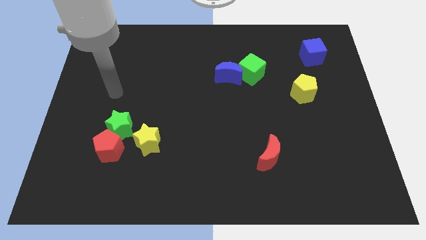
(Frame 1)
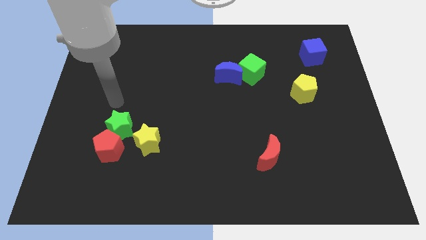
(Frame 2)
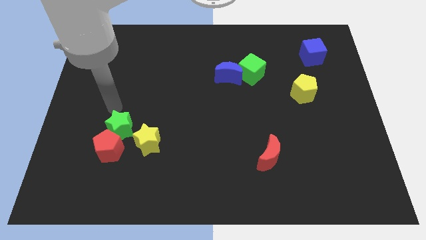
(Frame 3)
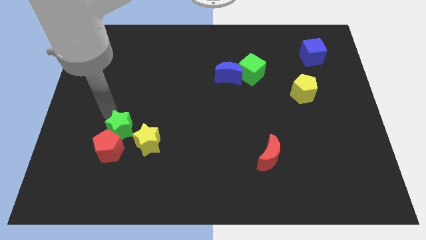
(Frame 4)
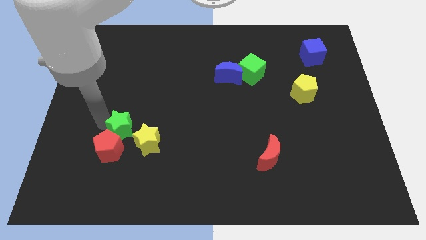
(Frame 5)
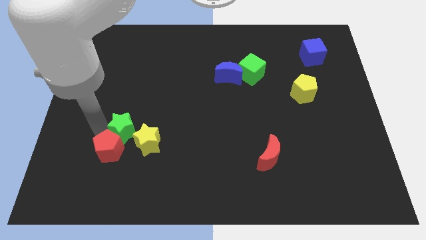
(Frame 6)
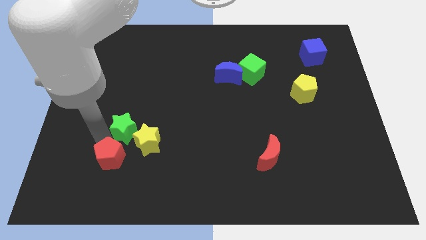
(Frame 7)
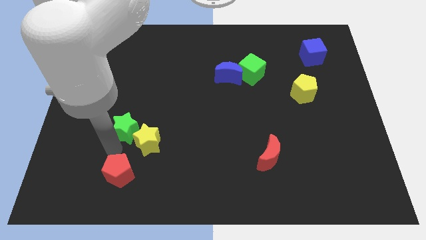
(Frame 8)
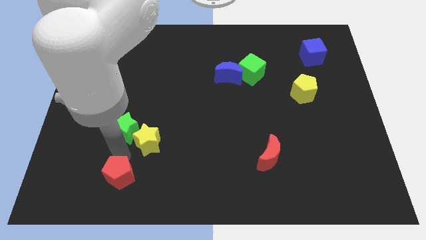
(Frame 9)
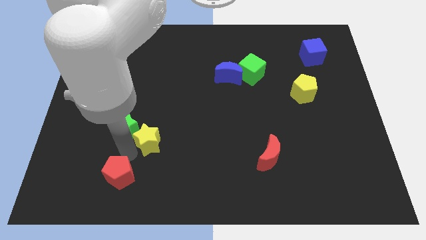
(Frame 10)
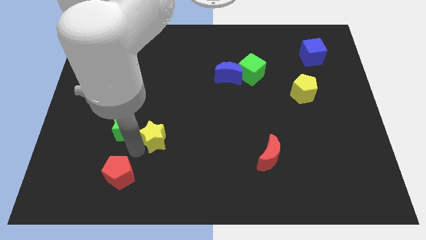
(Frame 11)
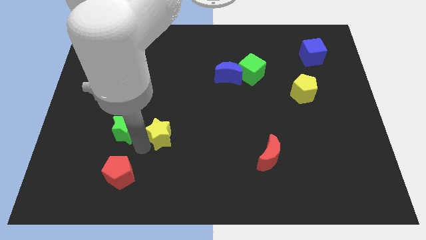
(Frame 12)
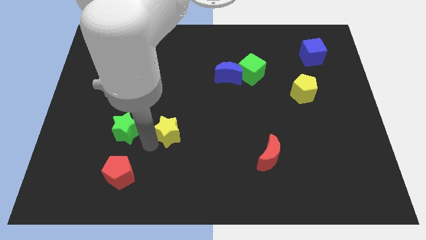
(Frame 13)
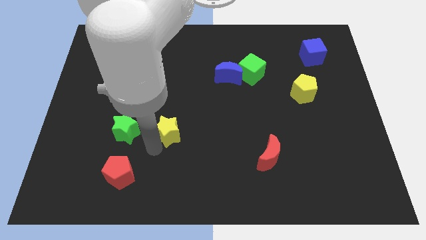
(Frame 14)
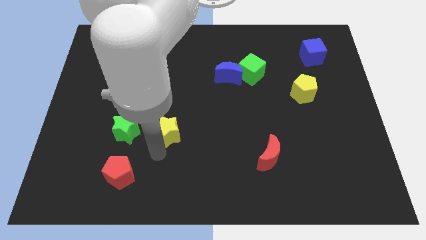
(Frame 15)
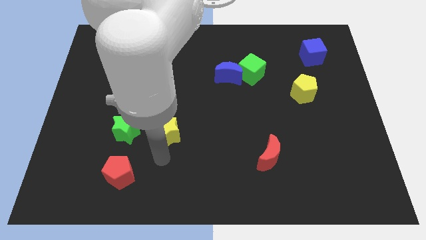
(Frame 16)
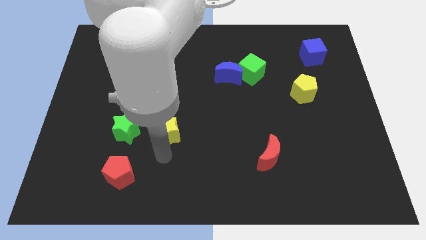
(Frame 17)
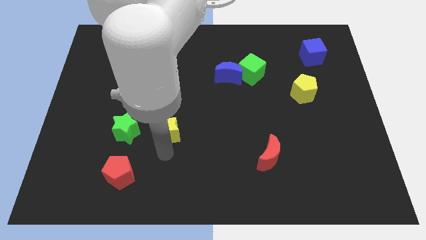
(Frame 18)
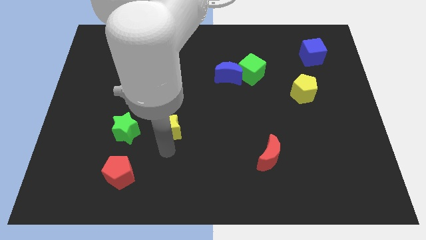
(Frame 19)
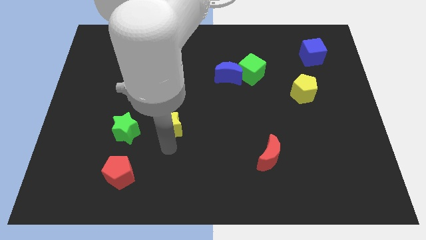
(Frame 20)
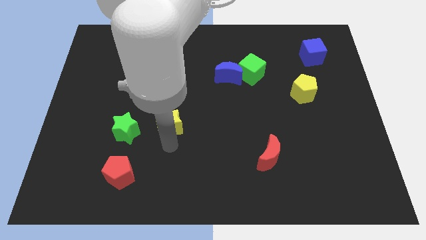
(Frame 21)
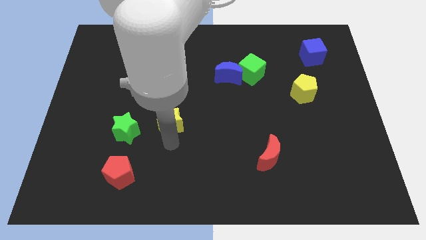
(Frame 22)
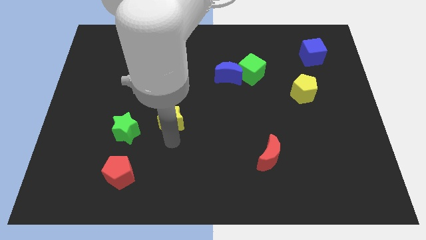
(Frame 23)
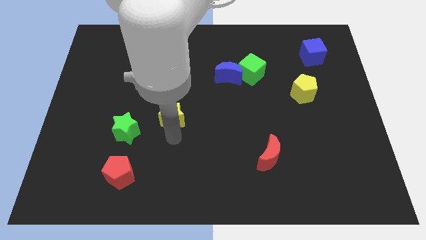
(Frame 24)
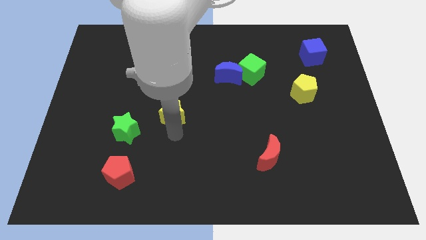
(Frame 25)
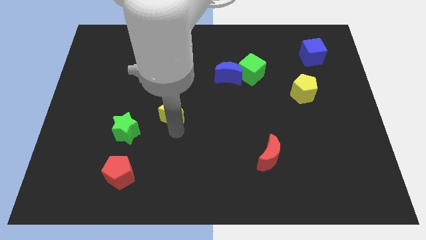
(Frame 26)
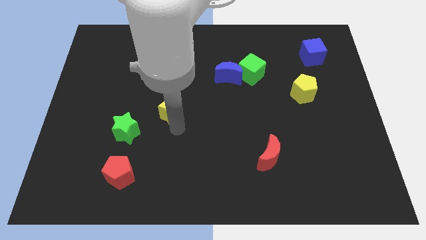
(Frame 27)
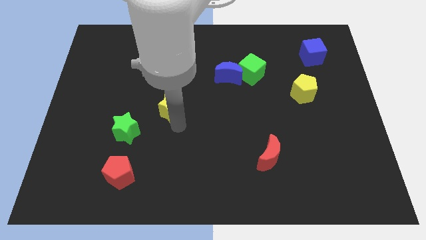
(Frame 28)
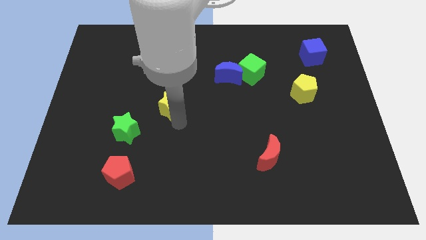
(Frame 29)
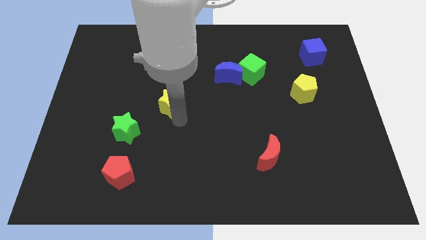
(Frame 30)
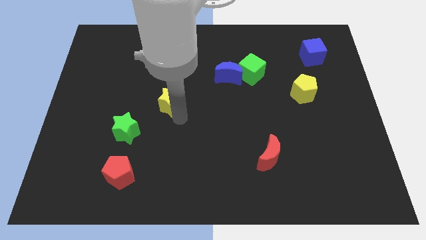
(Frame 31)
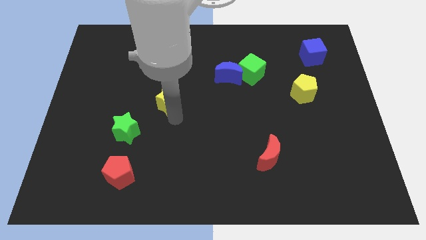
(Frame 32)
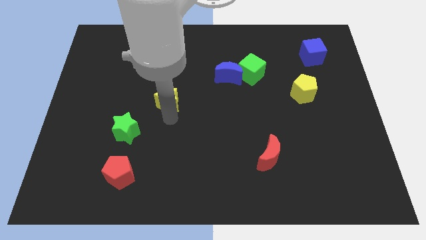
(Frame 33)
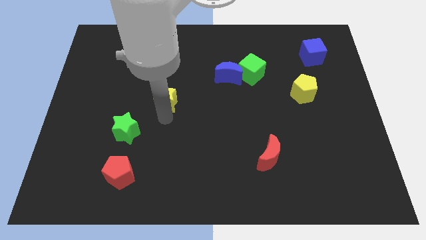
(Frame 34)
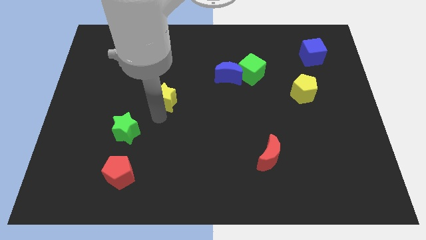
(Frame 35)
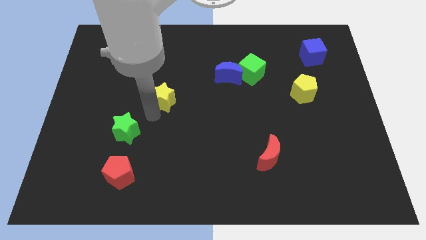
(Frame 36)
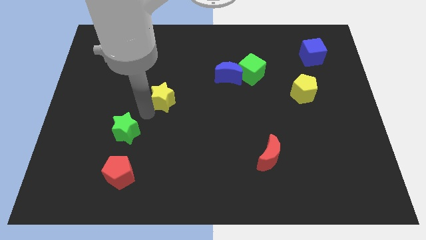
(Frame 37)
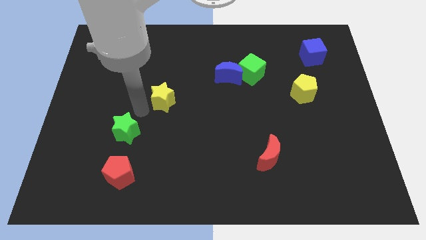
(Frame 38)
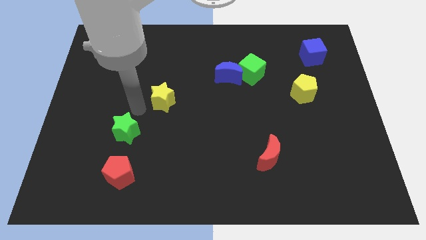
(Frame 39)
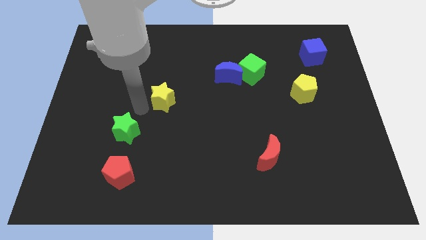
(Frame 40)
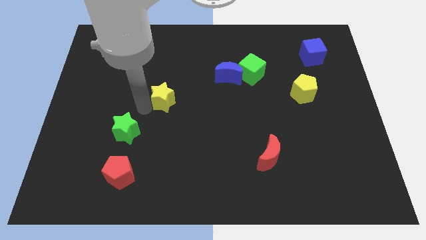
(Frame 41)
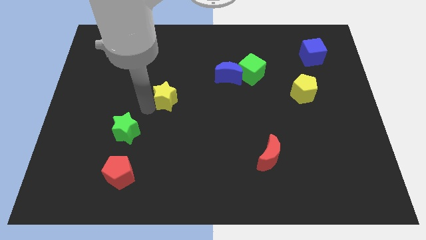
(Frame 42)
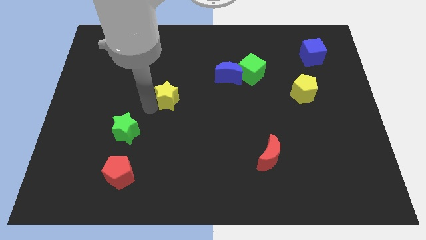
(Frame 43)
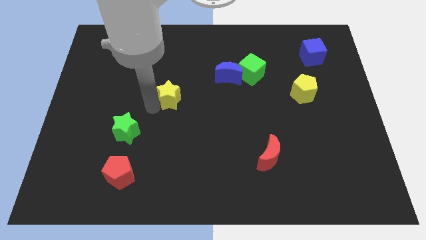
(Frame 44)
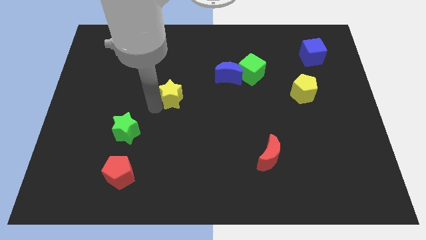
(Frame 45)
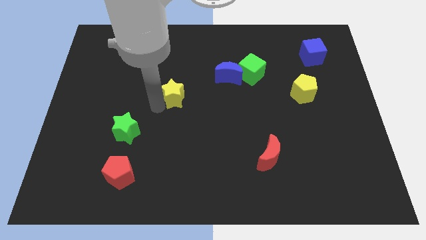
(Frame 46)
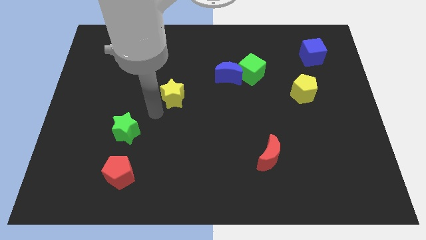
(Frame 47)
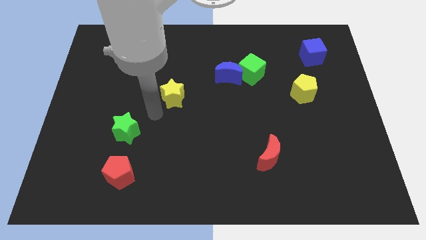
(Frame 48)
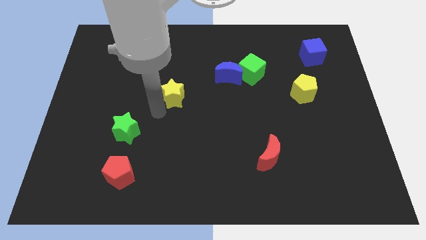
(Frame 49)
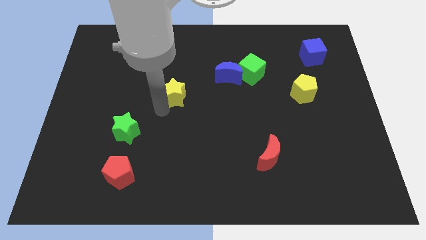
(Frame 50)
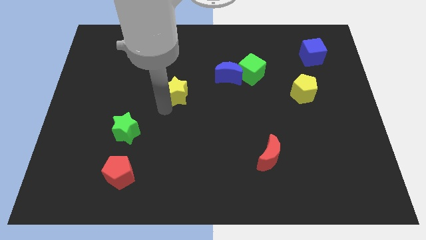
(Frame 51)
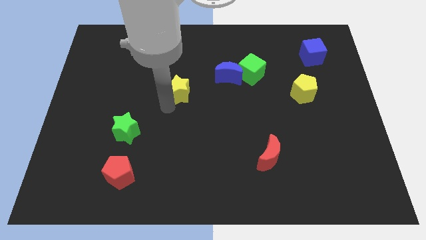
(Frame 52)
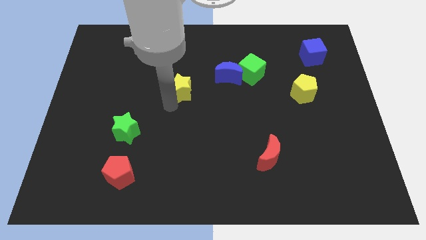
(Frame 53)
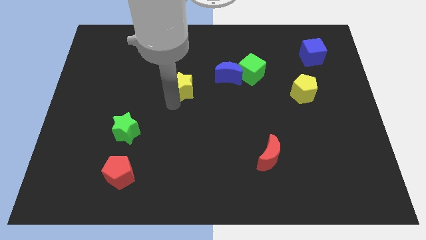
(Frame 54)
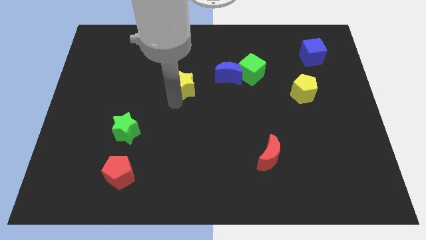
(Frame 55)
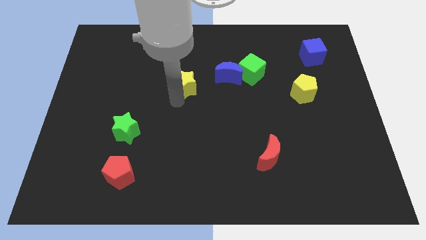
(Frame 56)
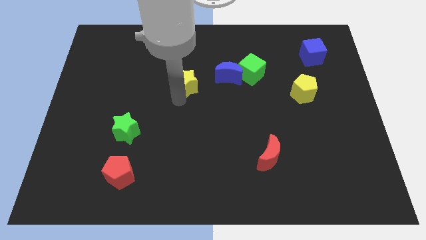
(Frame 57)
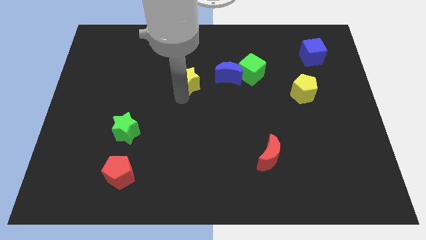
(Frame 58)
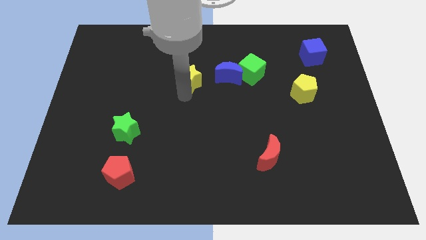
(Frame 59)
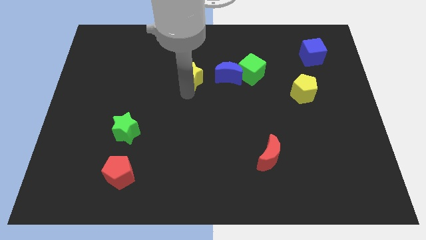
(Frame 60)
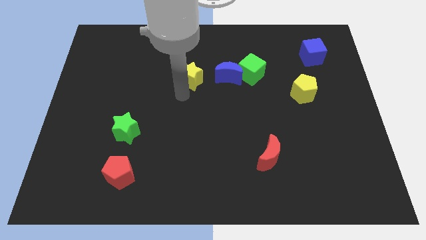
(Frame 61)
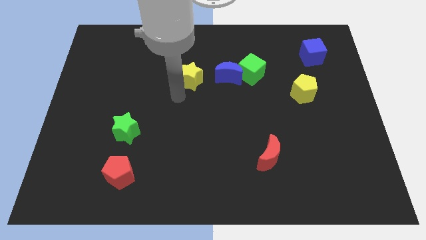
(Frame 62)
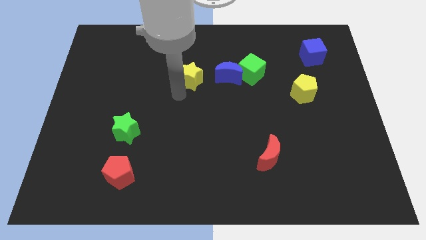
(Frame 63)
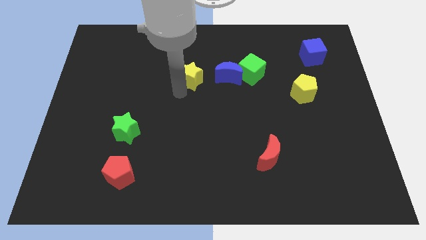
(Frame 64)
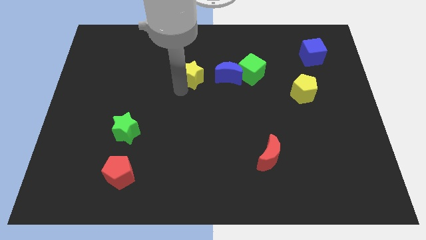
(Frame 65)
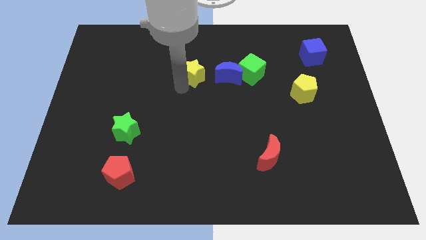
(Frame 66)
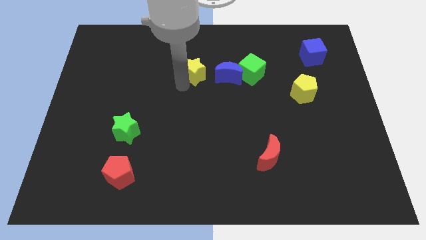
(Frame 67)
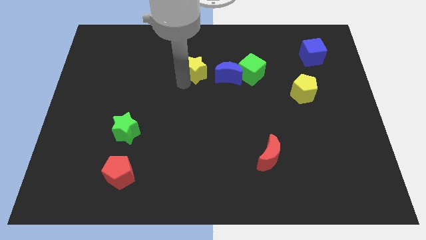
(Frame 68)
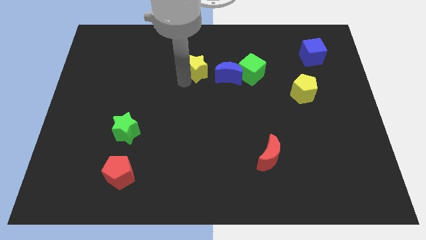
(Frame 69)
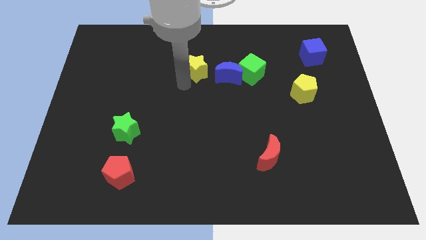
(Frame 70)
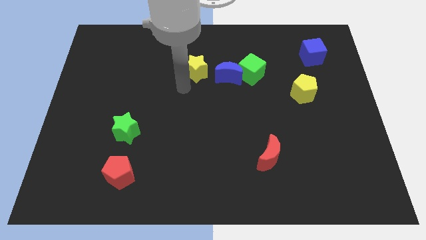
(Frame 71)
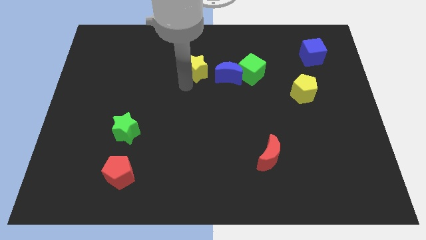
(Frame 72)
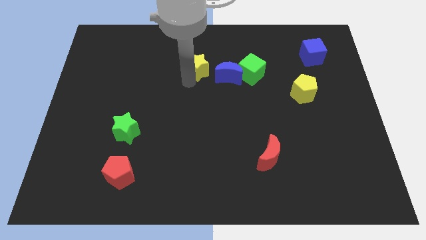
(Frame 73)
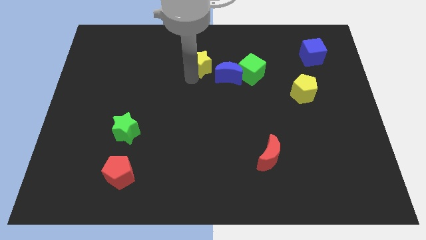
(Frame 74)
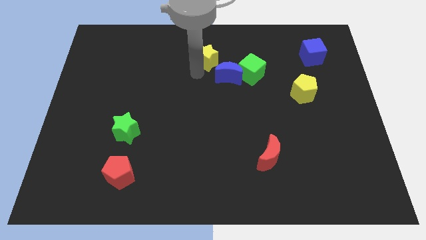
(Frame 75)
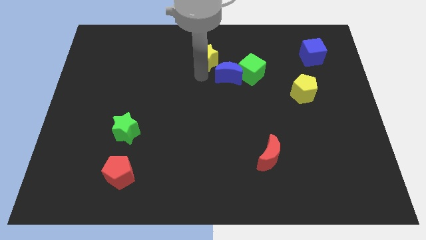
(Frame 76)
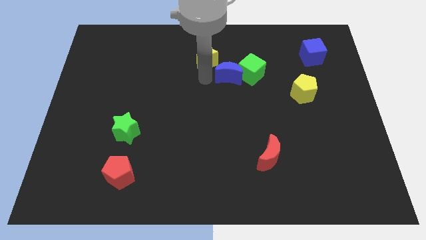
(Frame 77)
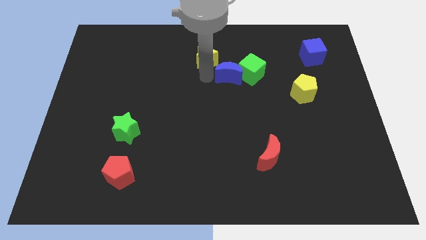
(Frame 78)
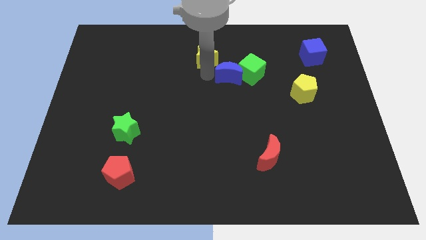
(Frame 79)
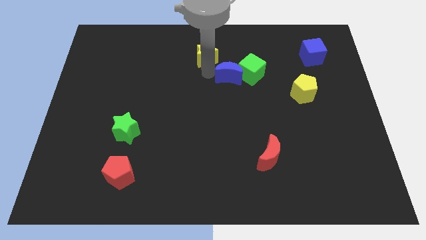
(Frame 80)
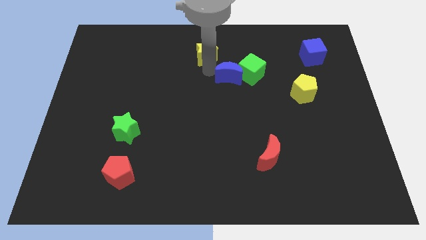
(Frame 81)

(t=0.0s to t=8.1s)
slide the yellow star to the towards your base
